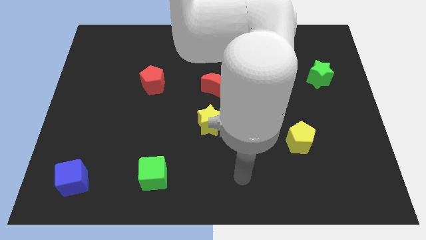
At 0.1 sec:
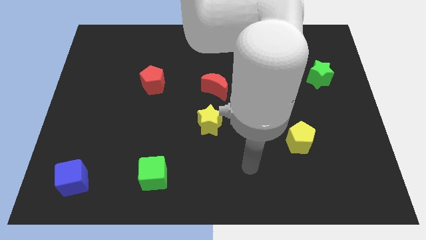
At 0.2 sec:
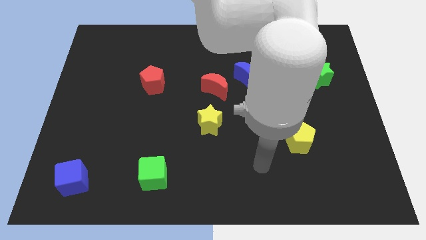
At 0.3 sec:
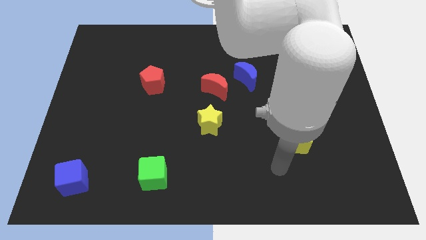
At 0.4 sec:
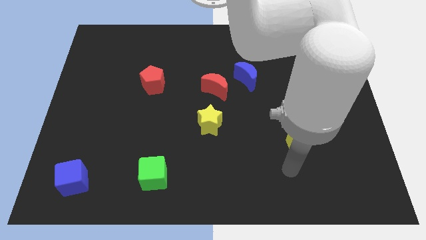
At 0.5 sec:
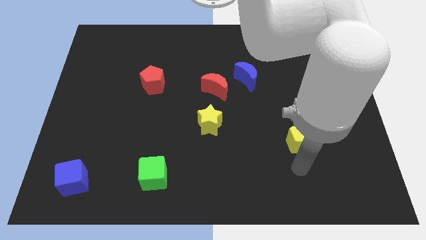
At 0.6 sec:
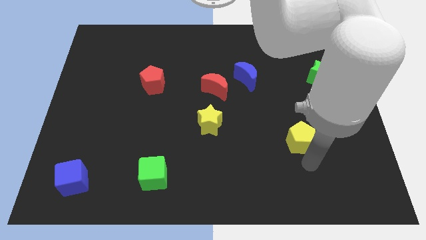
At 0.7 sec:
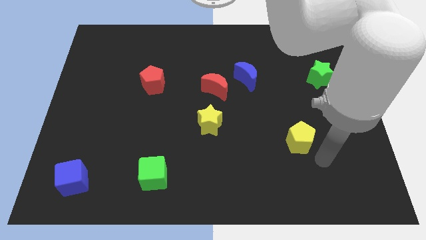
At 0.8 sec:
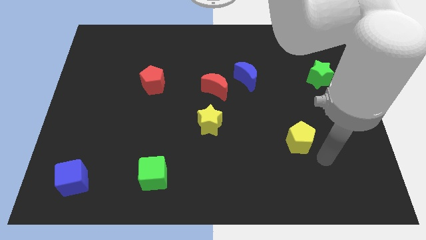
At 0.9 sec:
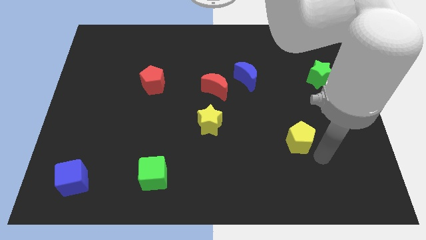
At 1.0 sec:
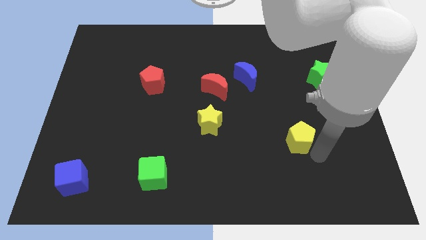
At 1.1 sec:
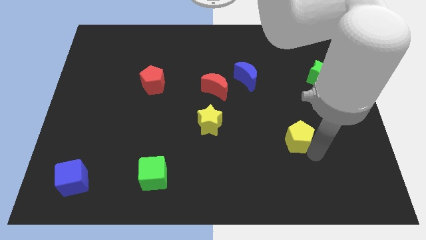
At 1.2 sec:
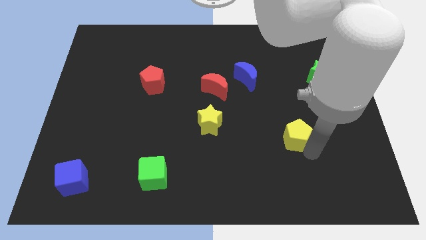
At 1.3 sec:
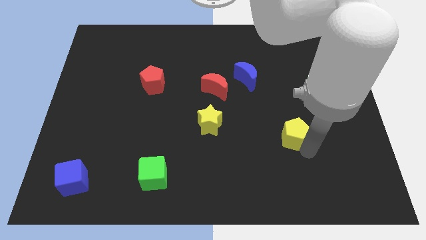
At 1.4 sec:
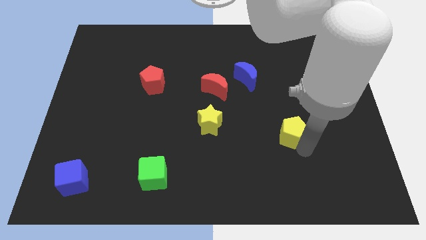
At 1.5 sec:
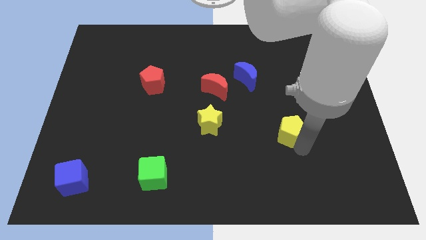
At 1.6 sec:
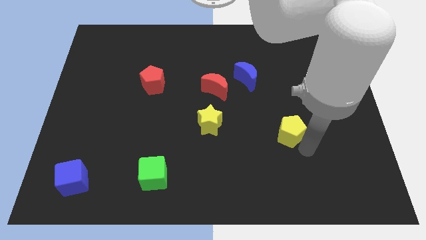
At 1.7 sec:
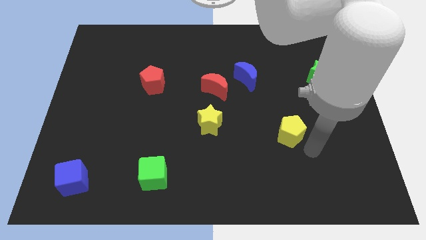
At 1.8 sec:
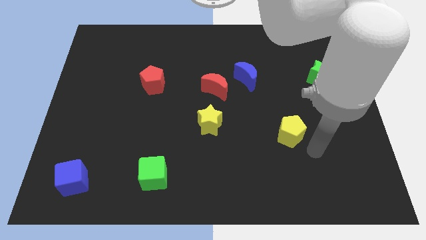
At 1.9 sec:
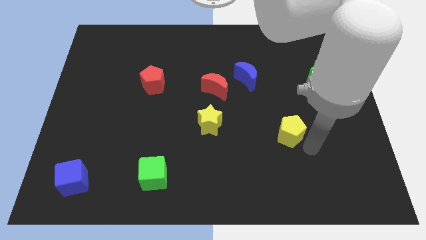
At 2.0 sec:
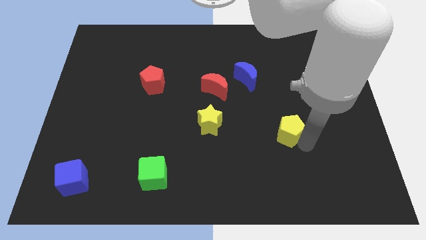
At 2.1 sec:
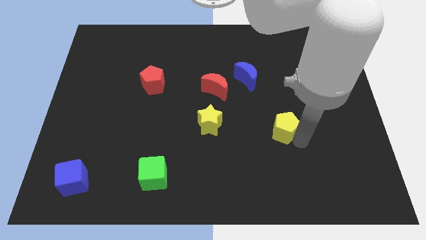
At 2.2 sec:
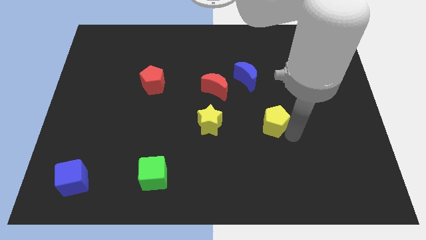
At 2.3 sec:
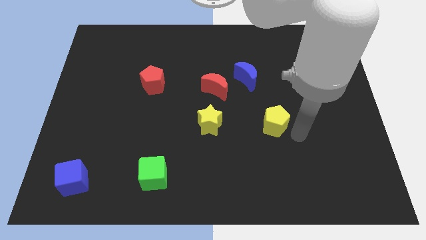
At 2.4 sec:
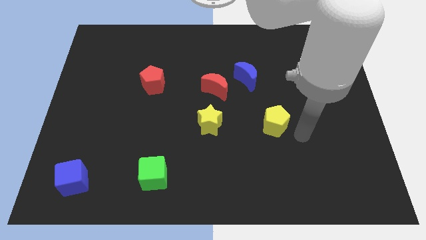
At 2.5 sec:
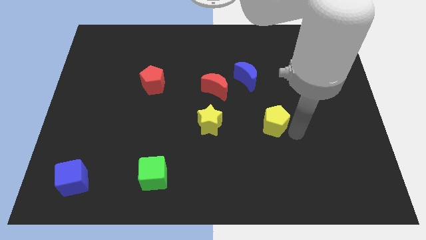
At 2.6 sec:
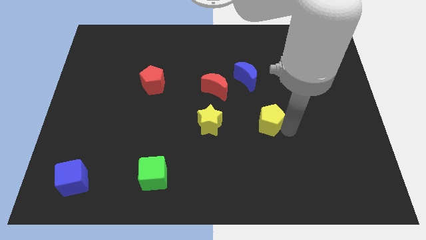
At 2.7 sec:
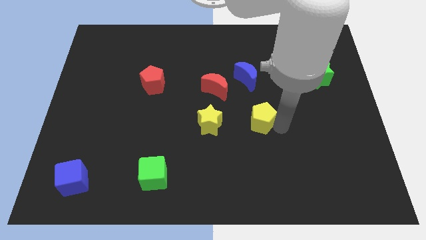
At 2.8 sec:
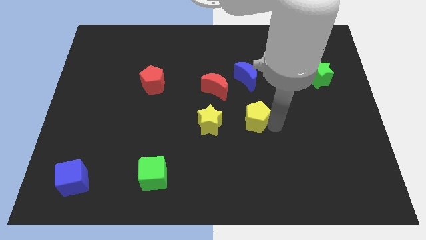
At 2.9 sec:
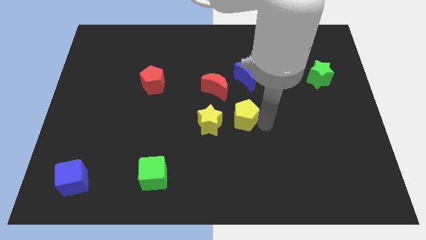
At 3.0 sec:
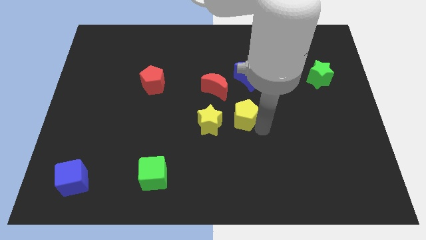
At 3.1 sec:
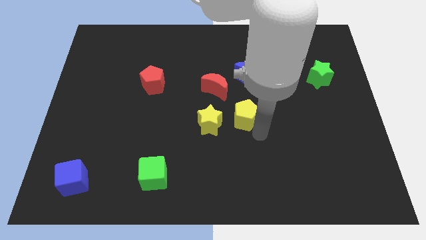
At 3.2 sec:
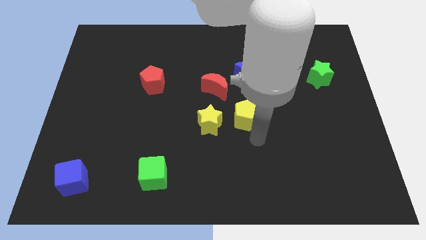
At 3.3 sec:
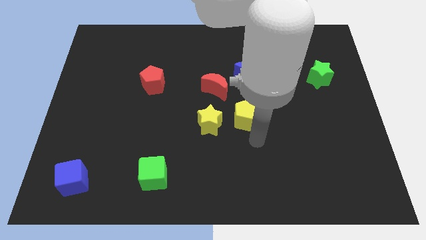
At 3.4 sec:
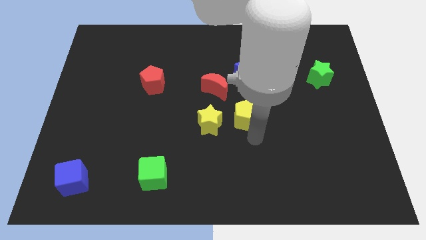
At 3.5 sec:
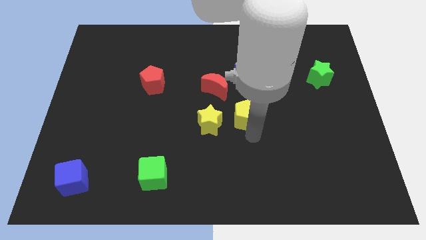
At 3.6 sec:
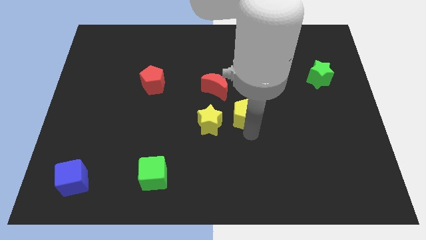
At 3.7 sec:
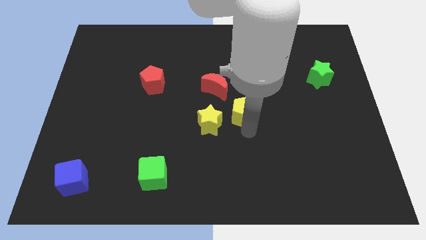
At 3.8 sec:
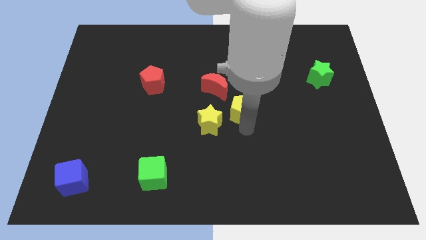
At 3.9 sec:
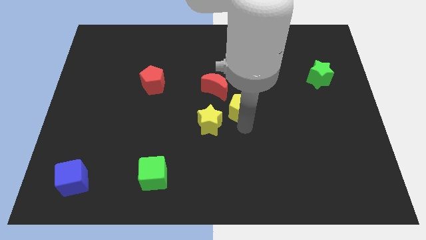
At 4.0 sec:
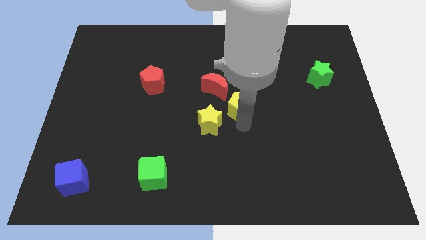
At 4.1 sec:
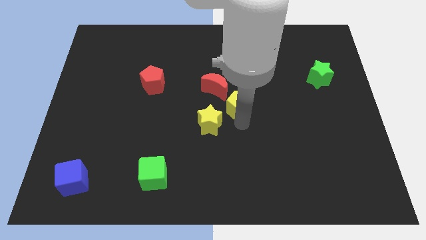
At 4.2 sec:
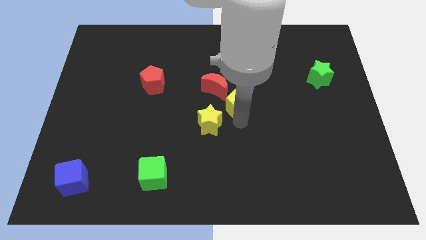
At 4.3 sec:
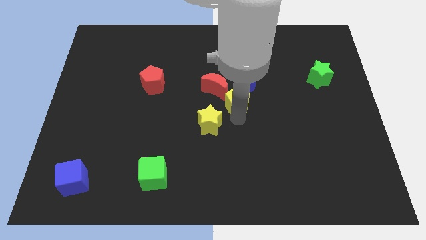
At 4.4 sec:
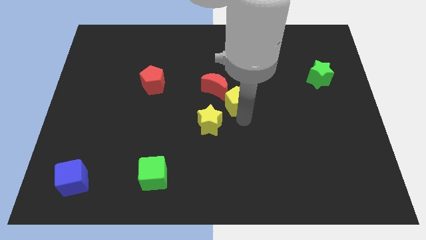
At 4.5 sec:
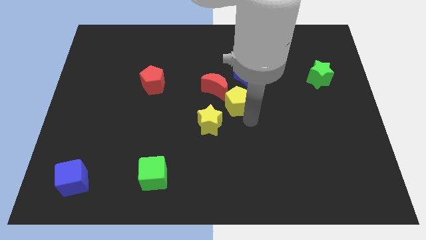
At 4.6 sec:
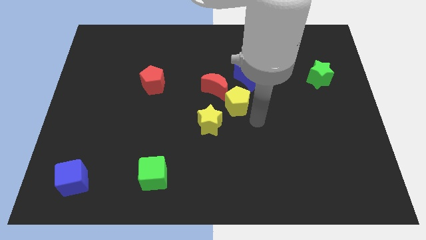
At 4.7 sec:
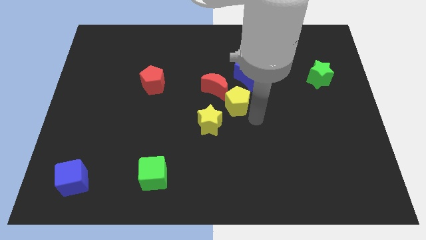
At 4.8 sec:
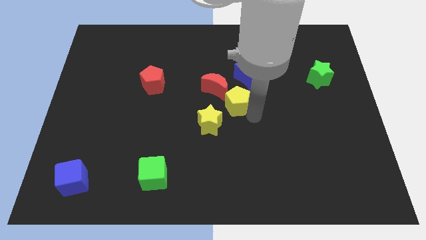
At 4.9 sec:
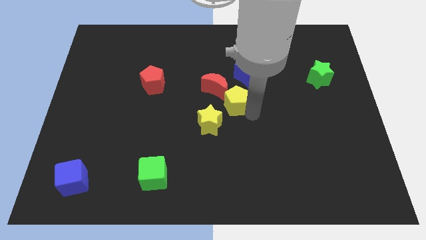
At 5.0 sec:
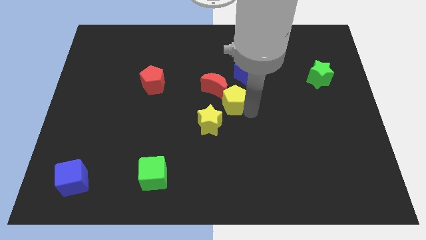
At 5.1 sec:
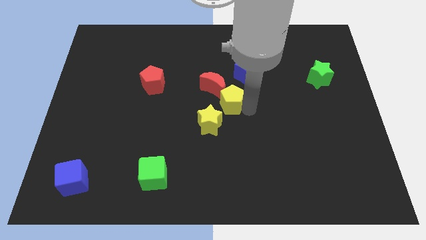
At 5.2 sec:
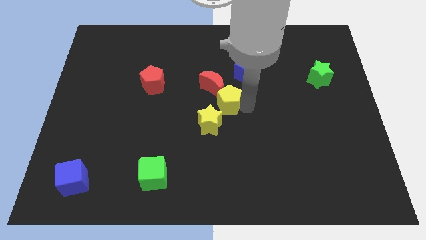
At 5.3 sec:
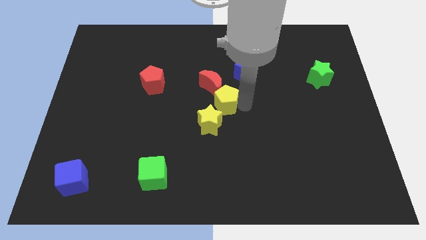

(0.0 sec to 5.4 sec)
put the yellow pentagon to the red moon

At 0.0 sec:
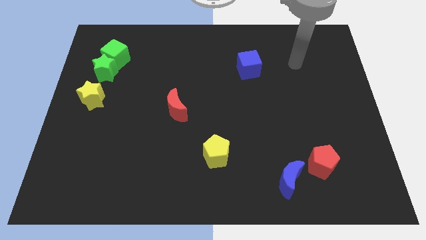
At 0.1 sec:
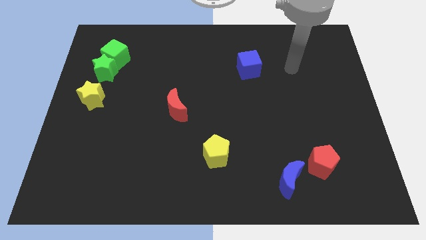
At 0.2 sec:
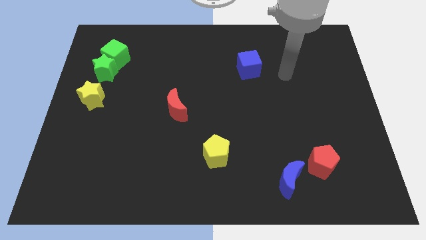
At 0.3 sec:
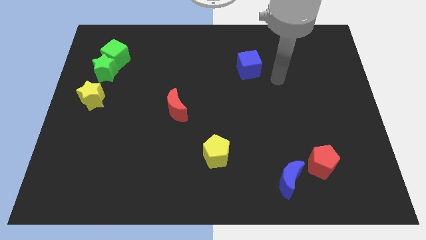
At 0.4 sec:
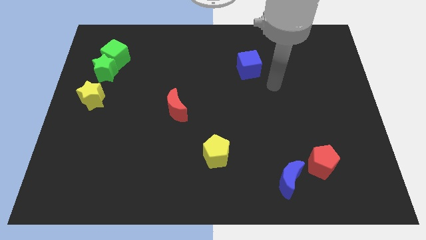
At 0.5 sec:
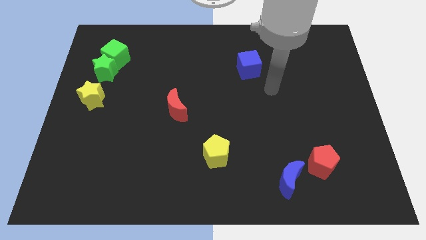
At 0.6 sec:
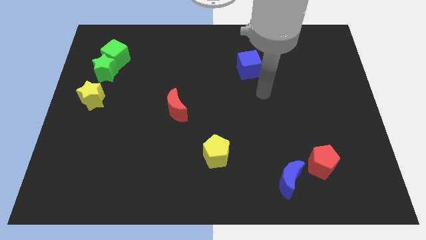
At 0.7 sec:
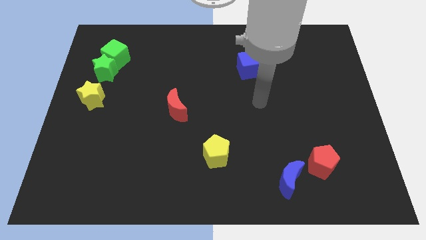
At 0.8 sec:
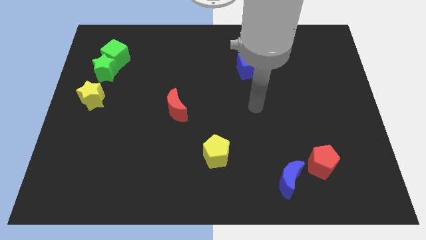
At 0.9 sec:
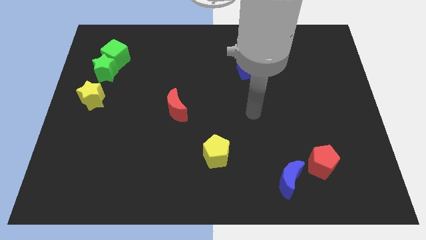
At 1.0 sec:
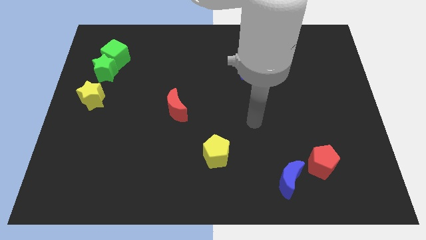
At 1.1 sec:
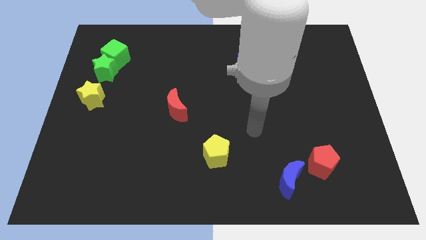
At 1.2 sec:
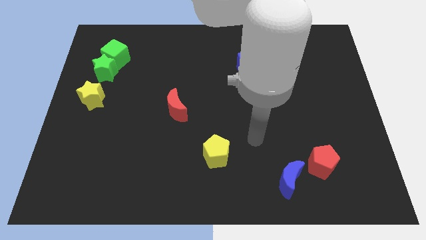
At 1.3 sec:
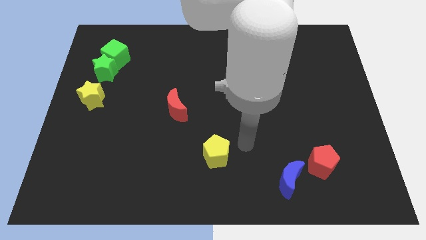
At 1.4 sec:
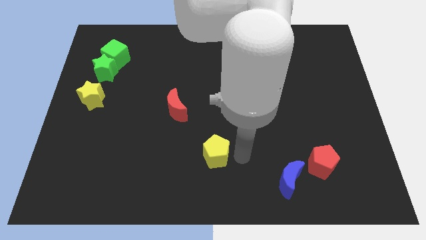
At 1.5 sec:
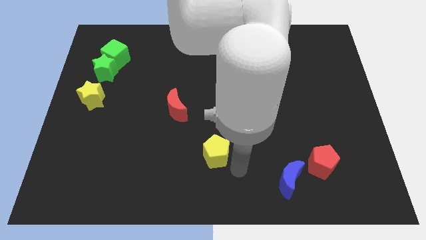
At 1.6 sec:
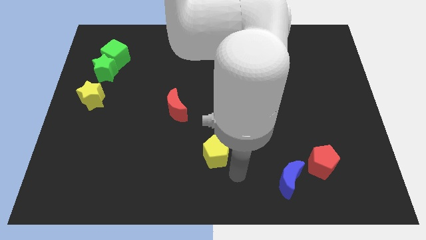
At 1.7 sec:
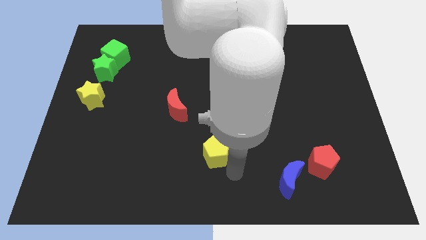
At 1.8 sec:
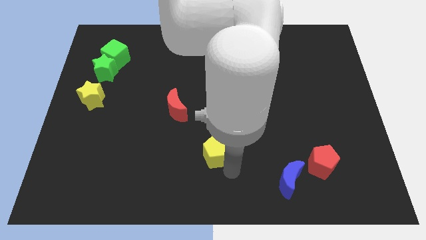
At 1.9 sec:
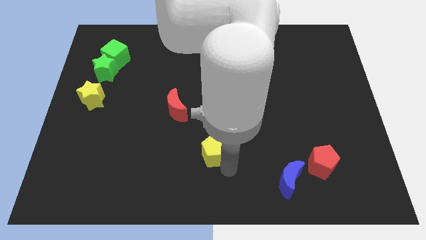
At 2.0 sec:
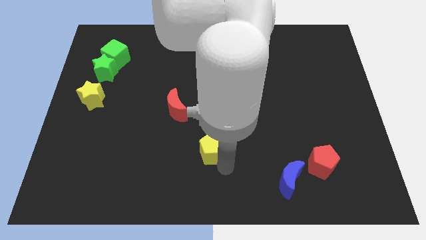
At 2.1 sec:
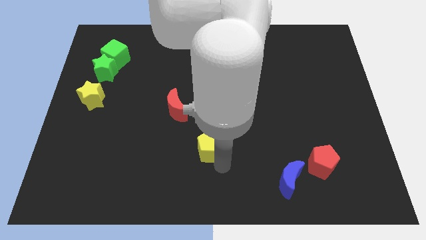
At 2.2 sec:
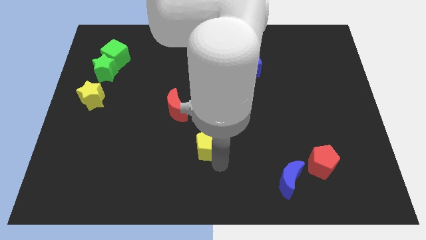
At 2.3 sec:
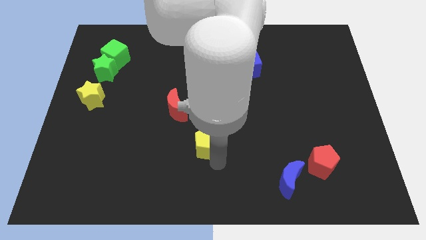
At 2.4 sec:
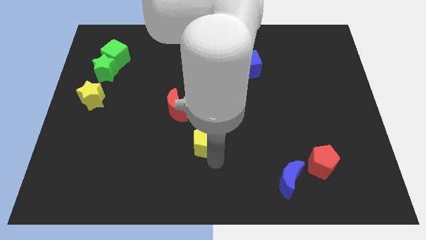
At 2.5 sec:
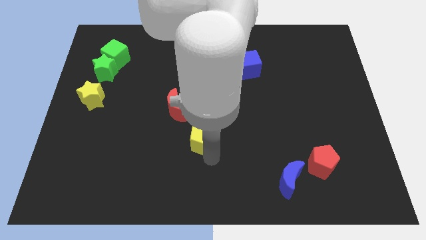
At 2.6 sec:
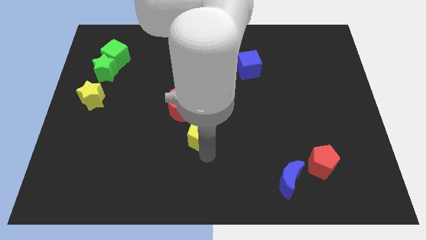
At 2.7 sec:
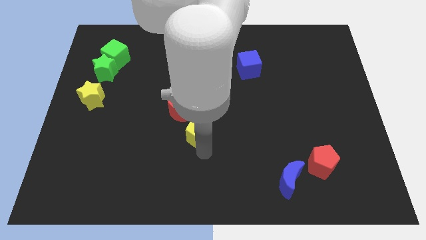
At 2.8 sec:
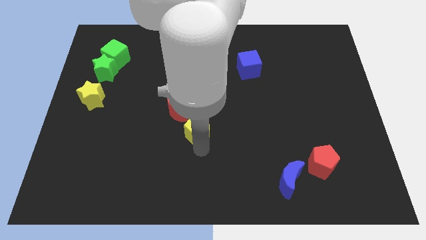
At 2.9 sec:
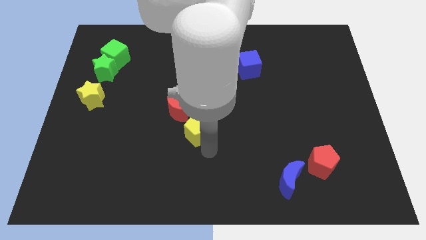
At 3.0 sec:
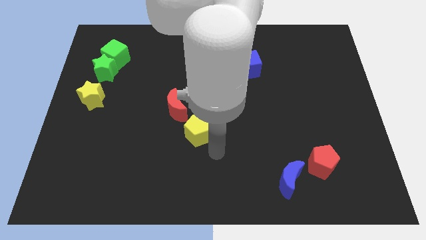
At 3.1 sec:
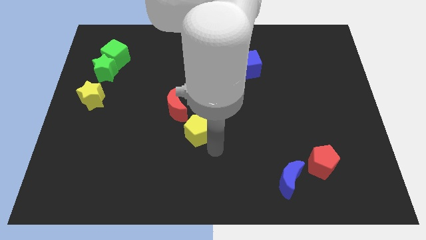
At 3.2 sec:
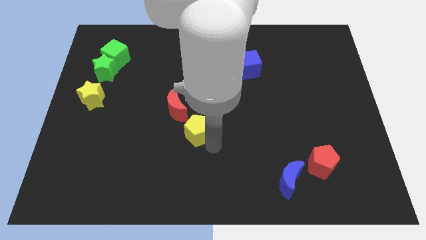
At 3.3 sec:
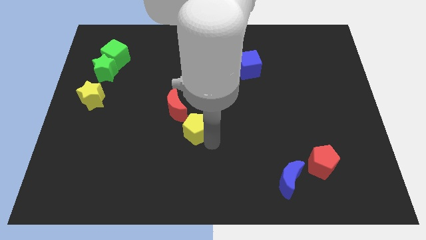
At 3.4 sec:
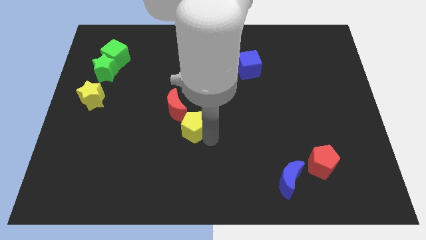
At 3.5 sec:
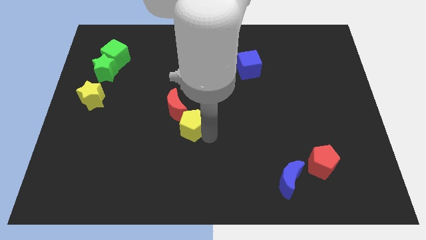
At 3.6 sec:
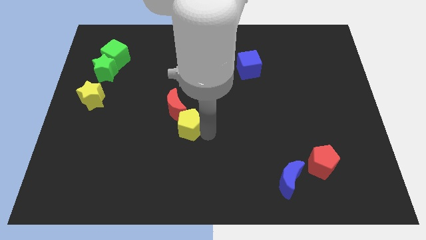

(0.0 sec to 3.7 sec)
push the yellow pentagon to the red moon
